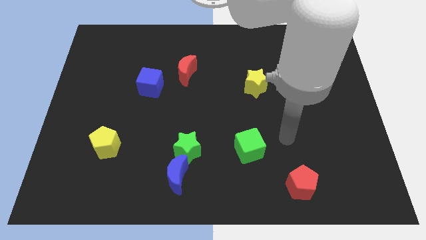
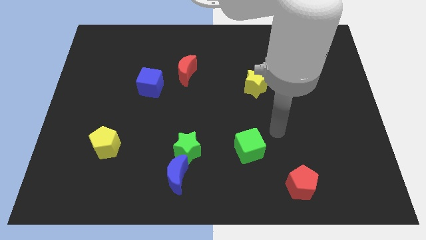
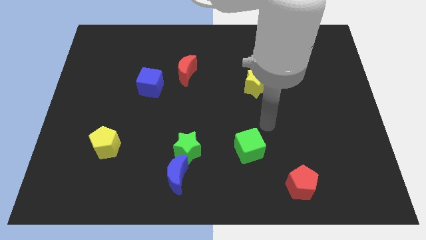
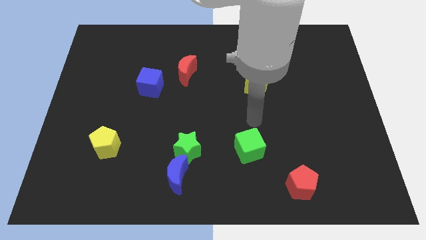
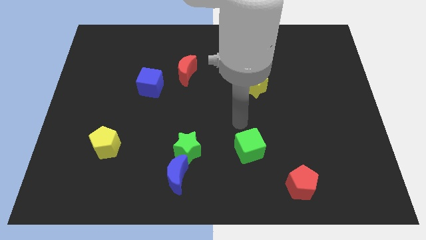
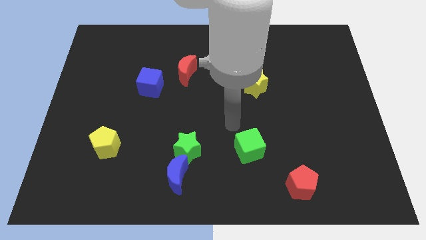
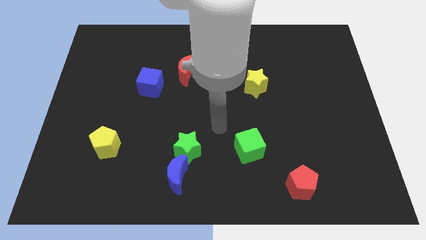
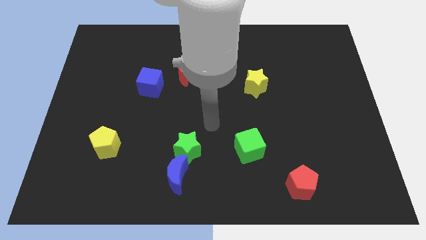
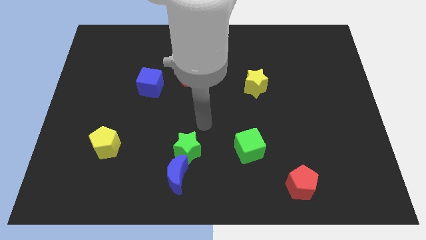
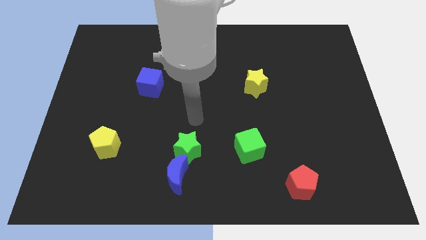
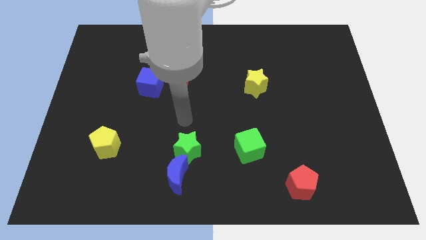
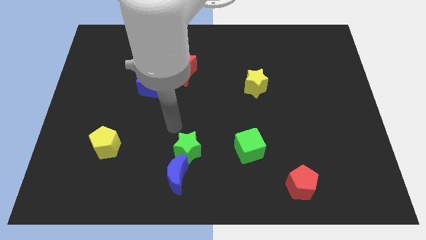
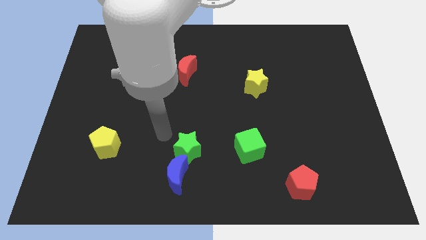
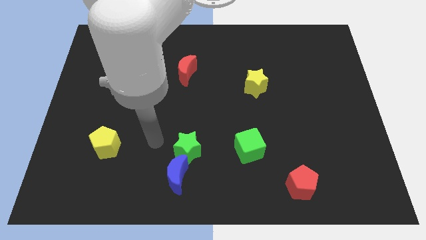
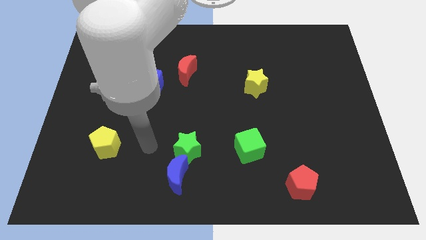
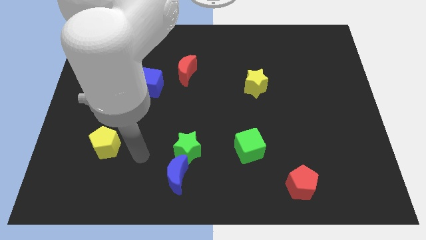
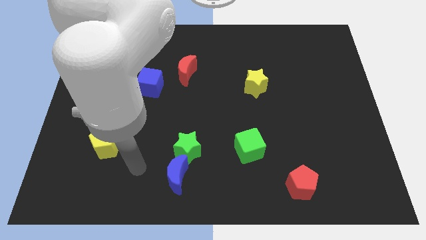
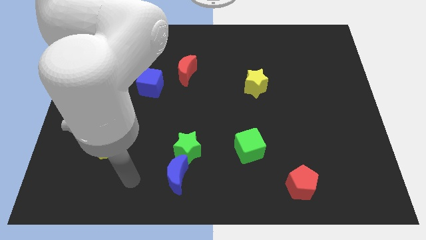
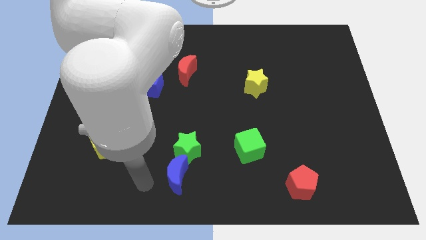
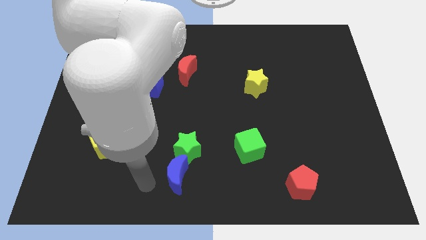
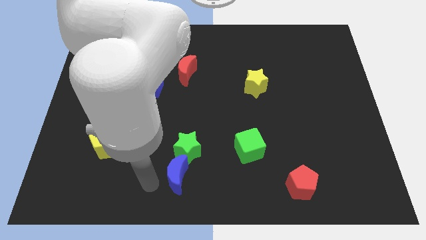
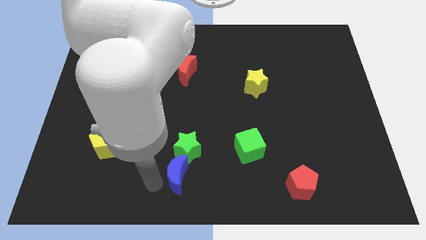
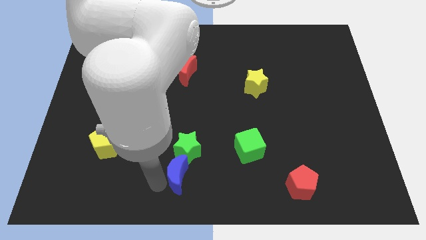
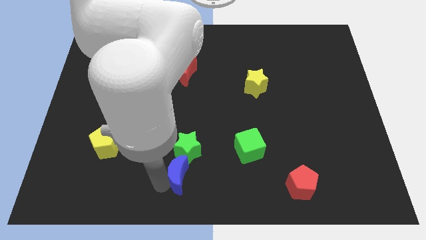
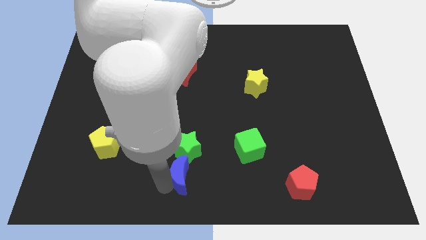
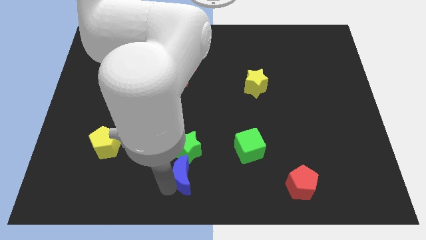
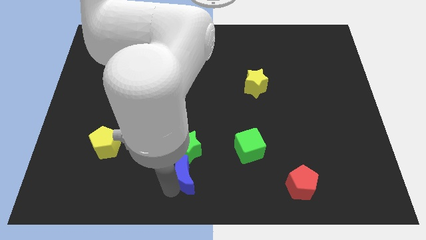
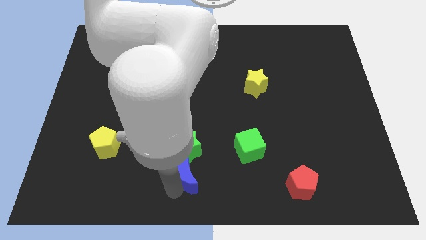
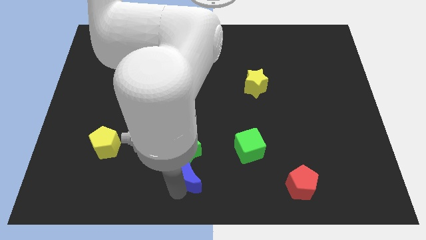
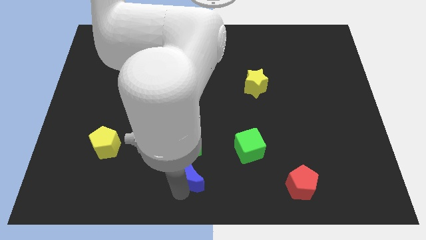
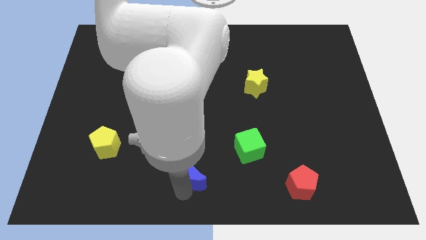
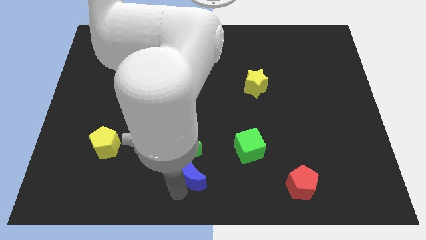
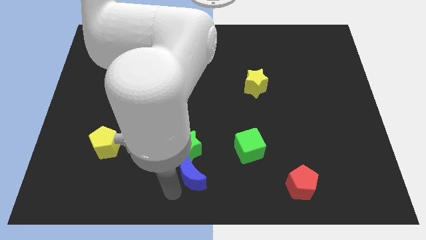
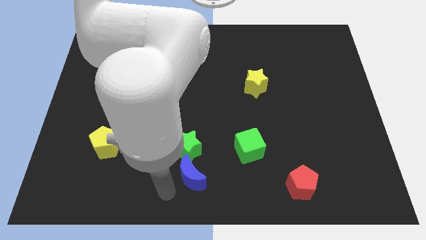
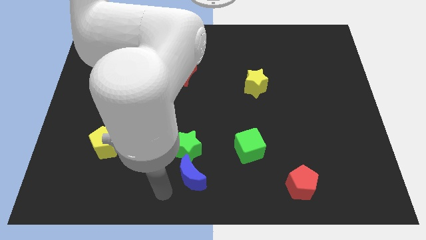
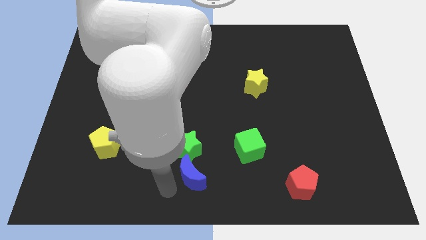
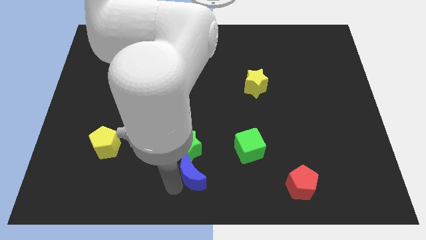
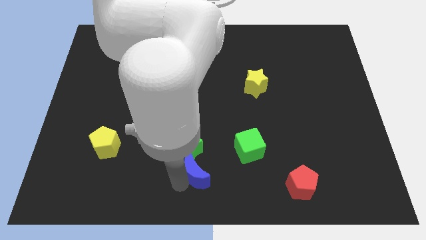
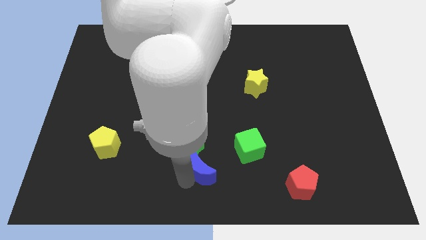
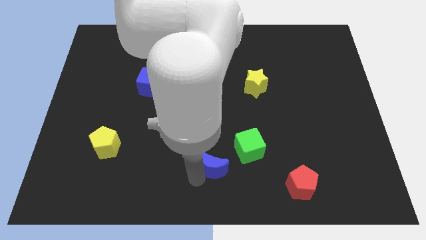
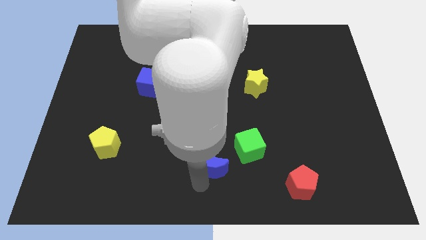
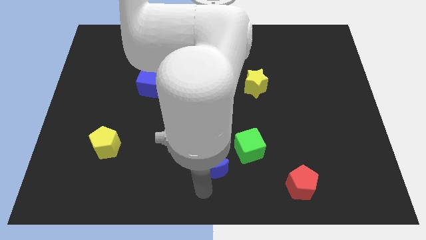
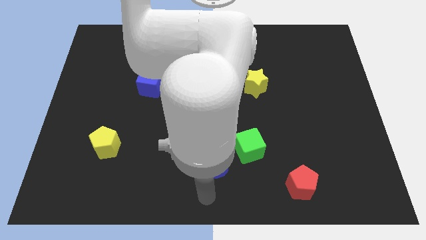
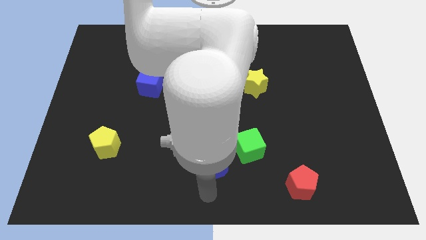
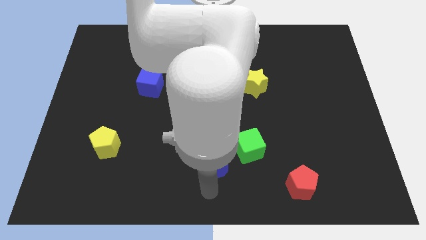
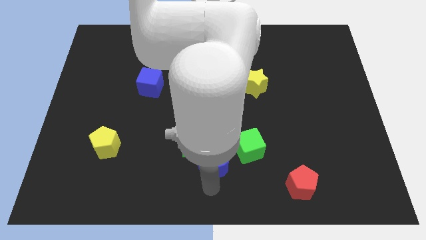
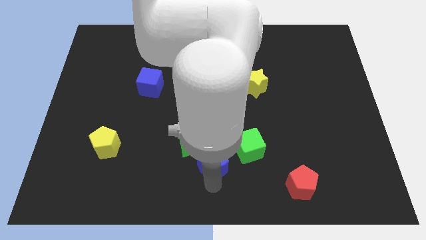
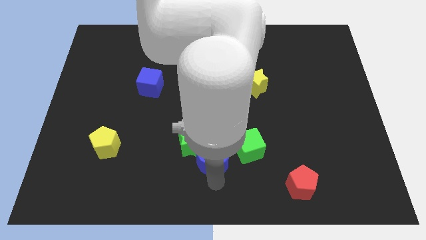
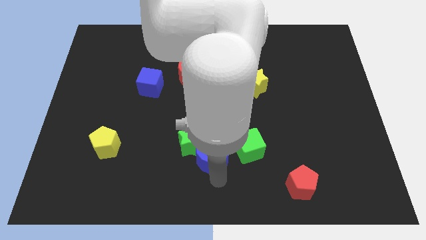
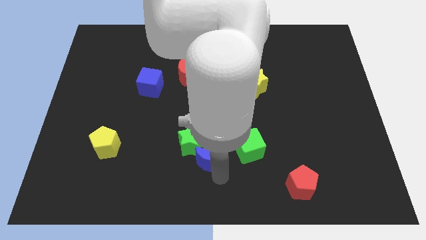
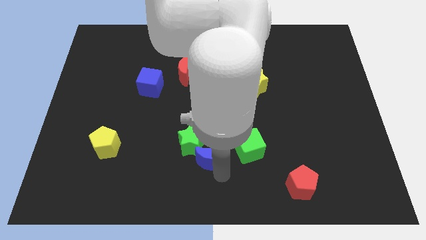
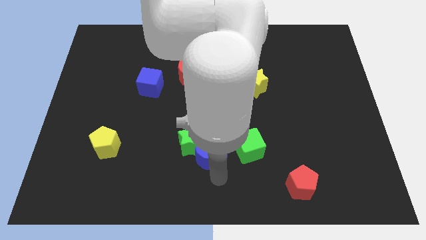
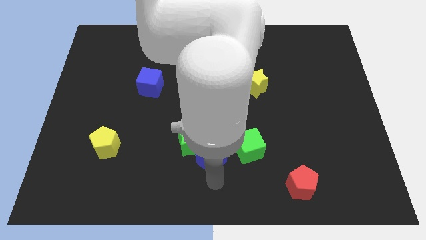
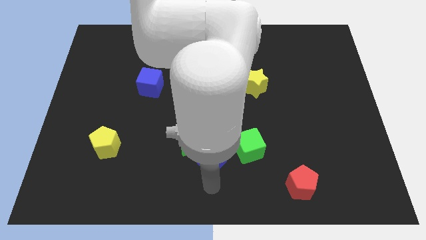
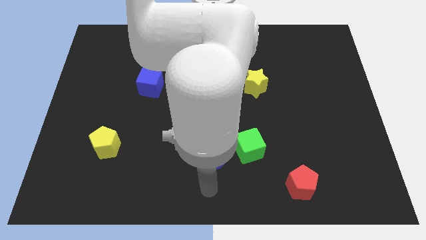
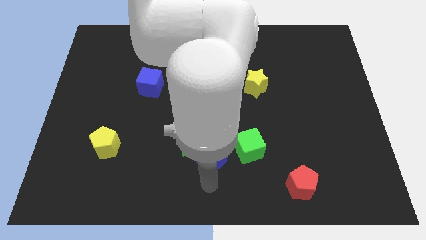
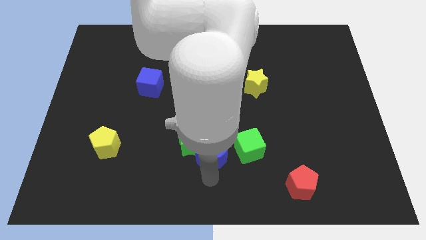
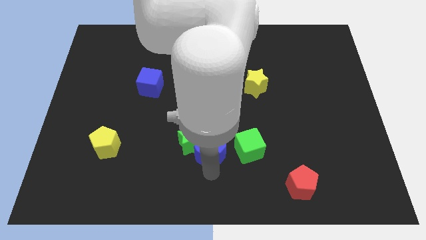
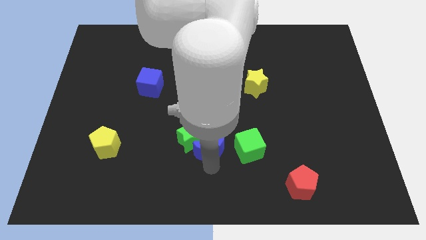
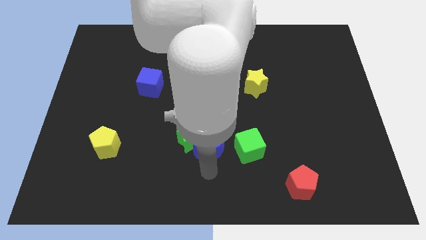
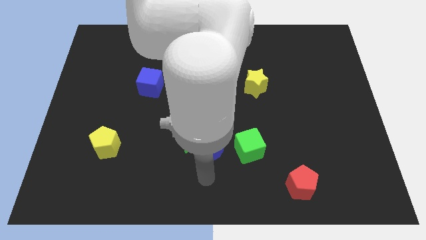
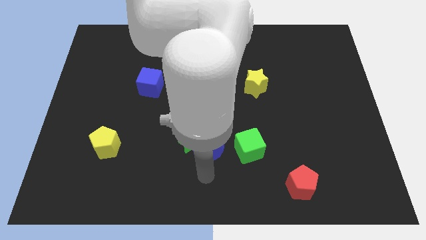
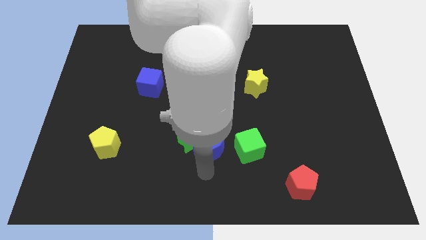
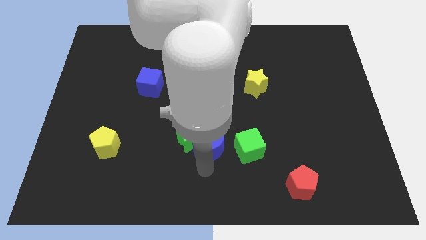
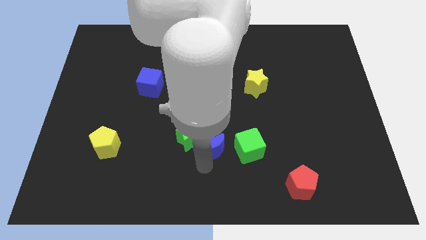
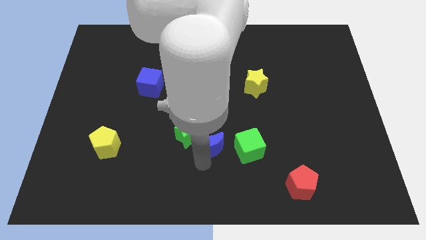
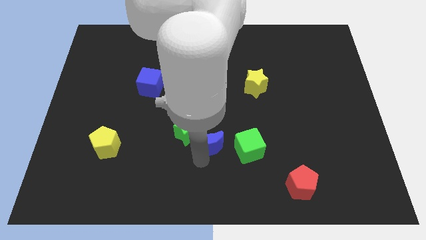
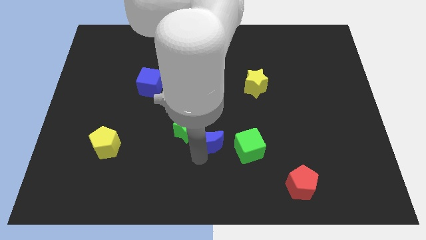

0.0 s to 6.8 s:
move the blue moon to the middle of the board
